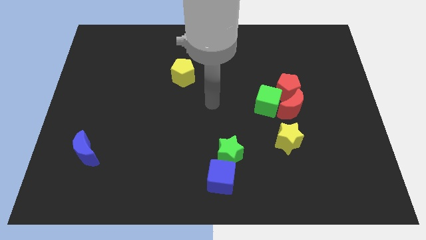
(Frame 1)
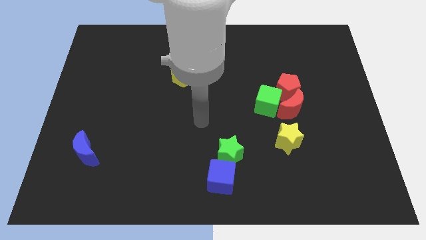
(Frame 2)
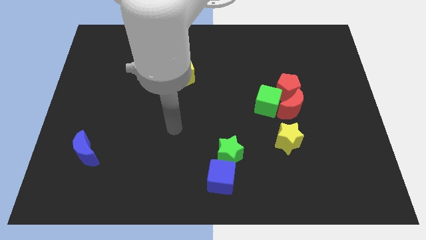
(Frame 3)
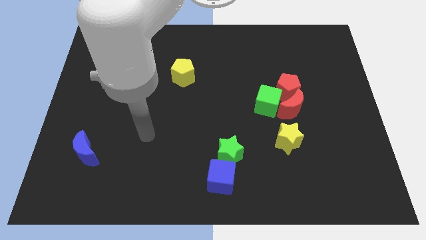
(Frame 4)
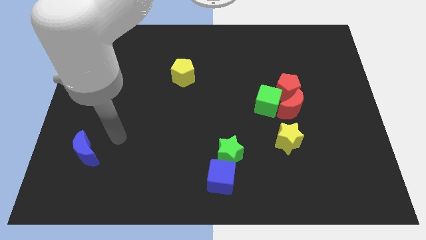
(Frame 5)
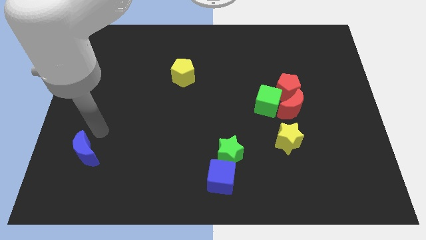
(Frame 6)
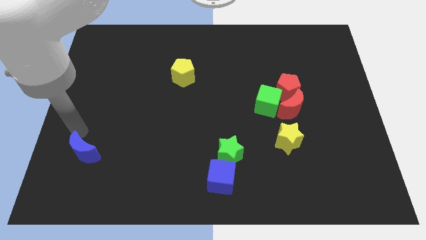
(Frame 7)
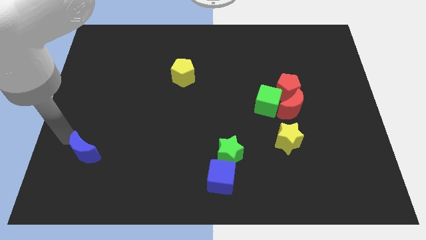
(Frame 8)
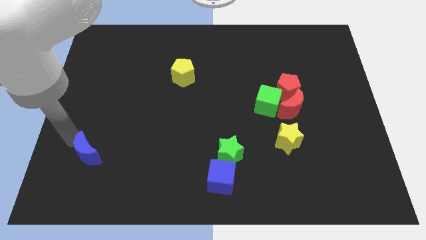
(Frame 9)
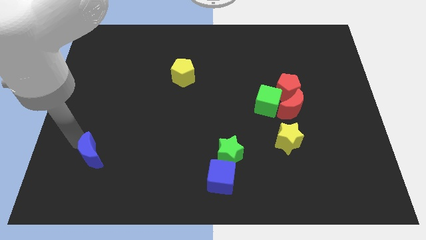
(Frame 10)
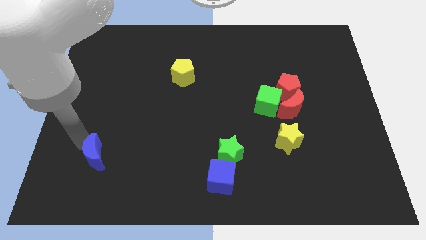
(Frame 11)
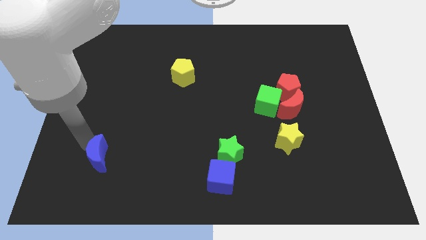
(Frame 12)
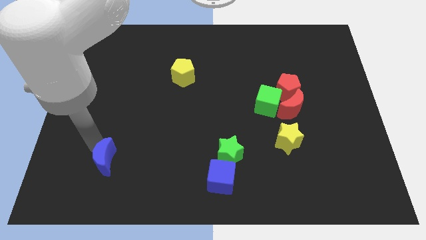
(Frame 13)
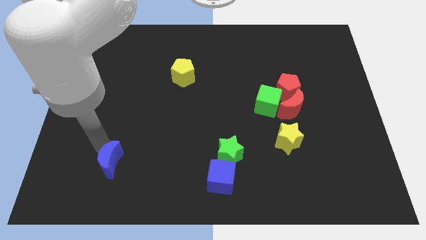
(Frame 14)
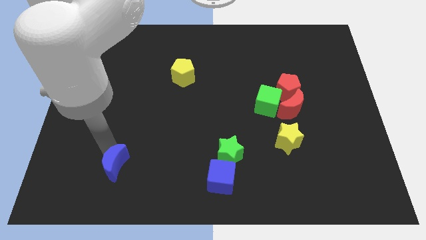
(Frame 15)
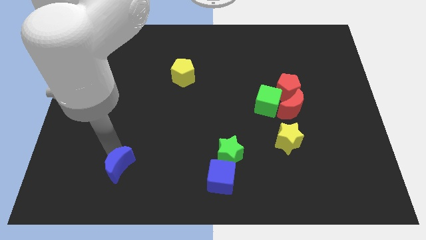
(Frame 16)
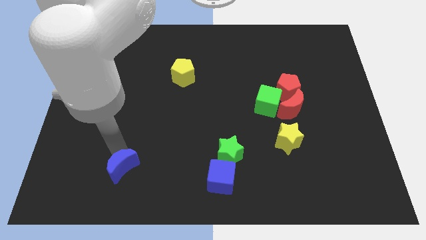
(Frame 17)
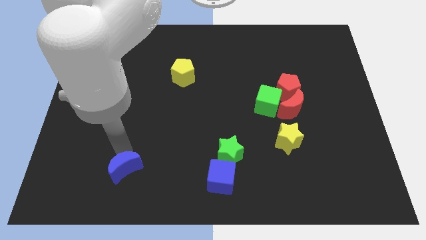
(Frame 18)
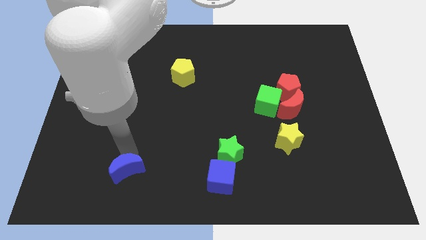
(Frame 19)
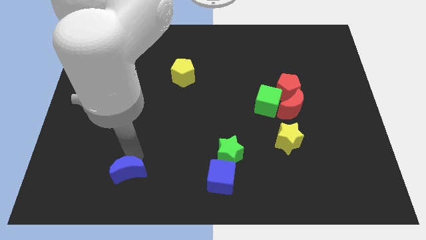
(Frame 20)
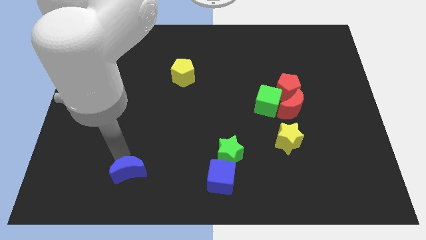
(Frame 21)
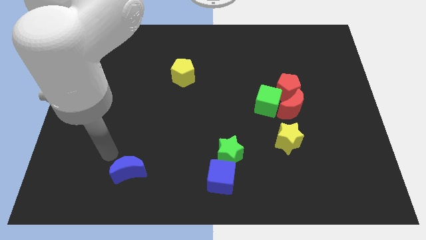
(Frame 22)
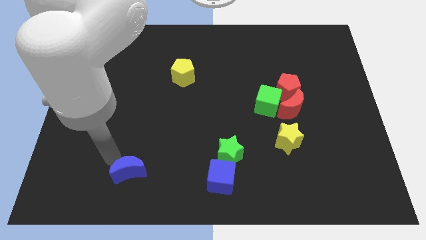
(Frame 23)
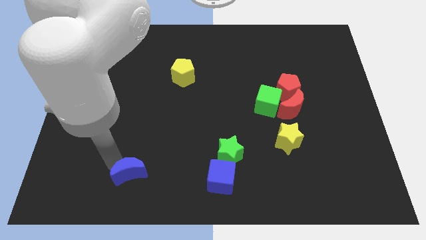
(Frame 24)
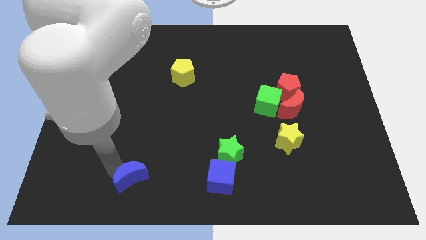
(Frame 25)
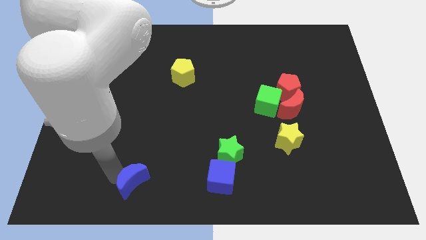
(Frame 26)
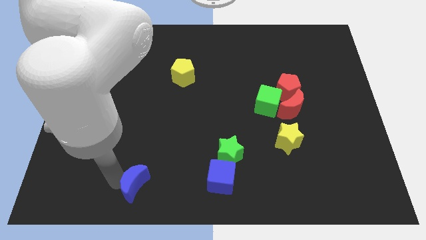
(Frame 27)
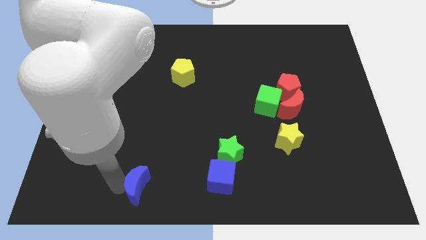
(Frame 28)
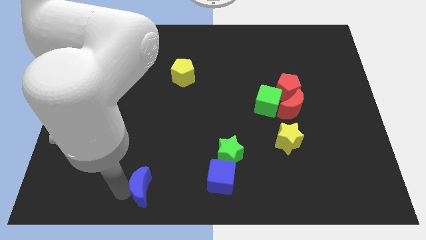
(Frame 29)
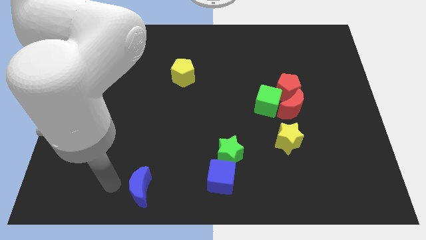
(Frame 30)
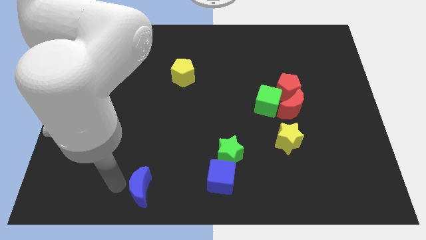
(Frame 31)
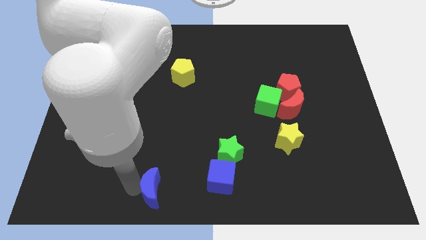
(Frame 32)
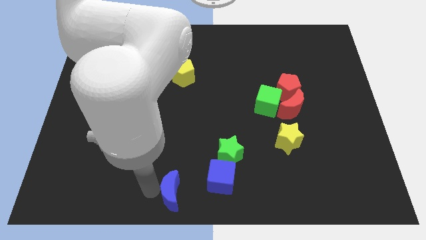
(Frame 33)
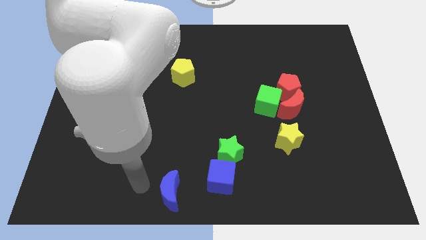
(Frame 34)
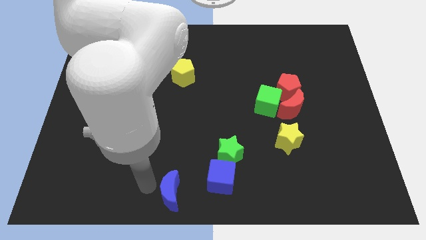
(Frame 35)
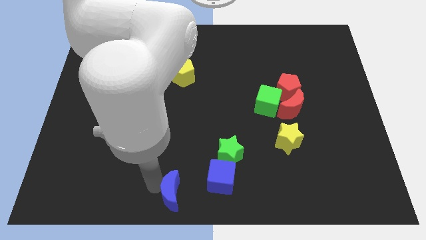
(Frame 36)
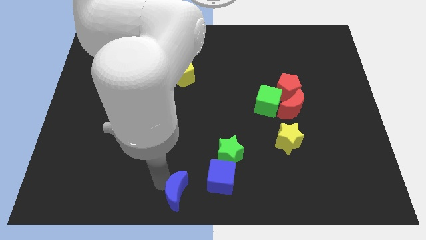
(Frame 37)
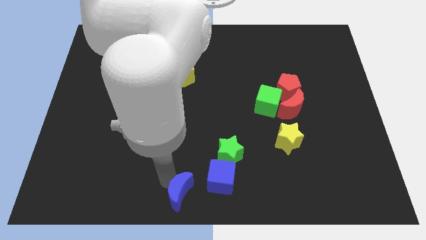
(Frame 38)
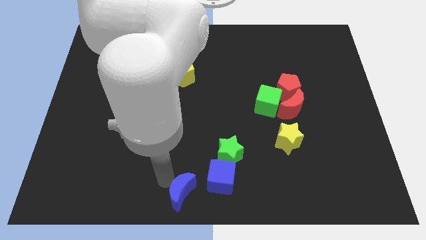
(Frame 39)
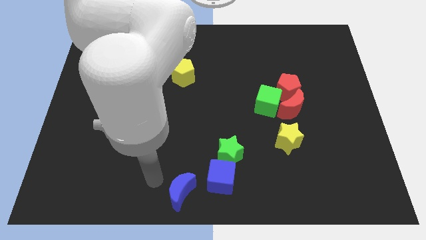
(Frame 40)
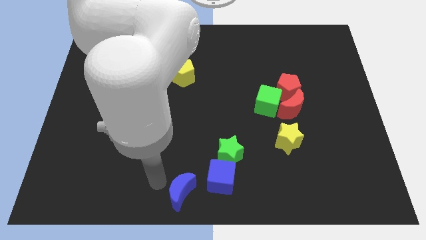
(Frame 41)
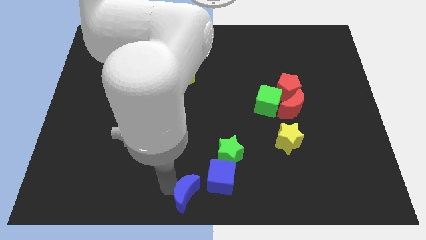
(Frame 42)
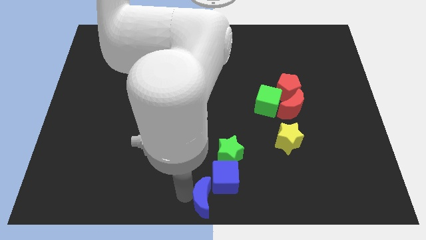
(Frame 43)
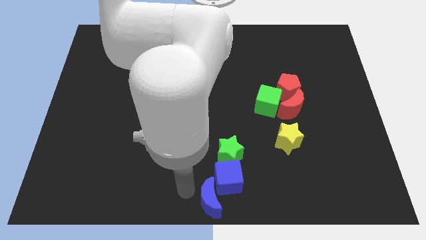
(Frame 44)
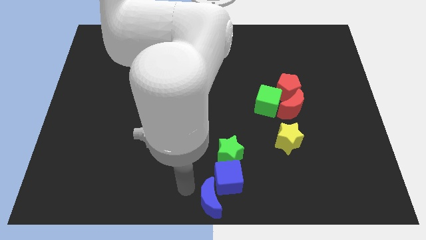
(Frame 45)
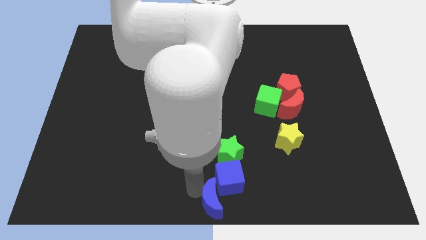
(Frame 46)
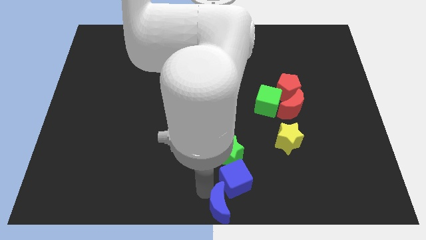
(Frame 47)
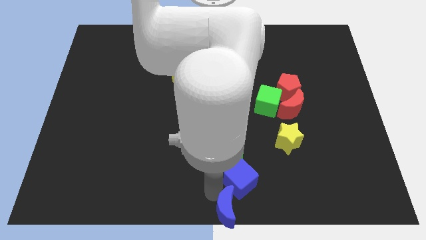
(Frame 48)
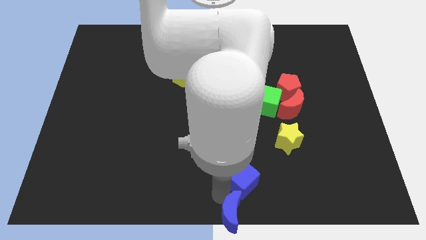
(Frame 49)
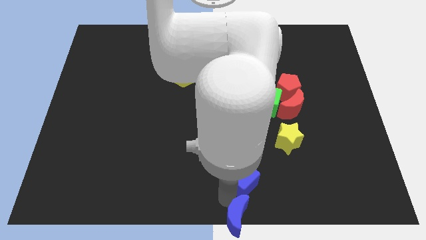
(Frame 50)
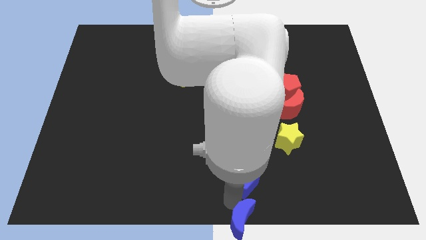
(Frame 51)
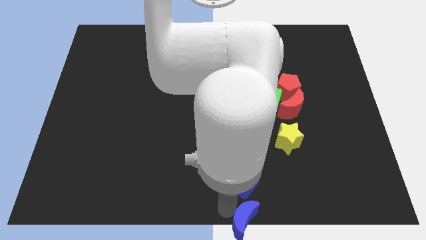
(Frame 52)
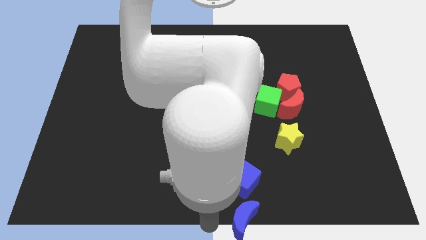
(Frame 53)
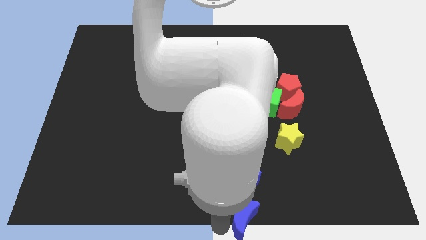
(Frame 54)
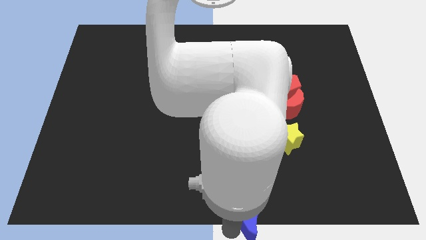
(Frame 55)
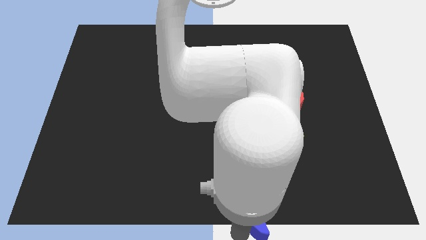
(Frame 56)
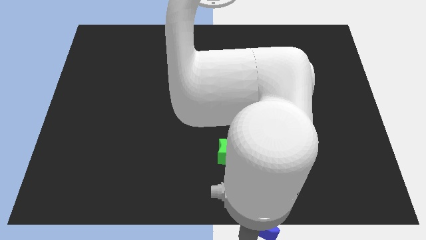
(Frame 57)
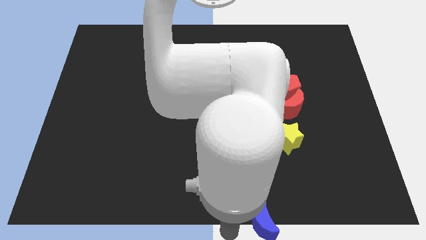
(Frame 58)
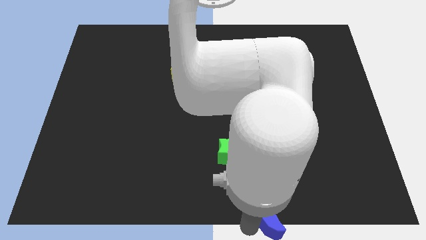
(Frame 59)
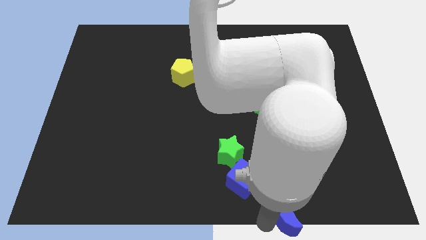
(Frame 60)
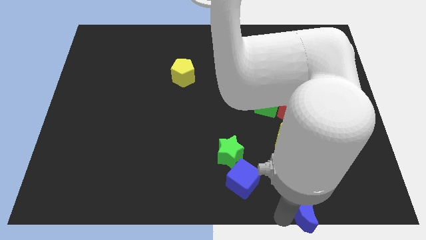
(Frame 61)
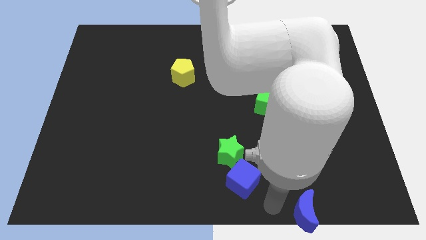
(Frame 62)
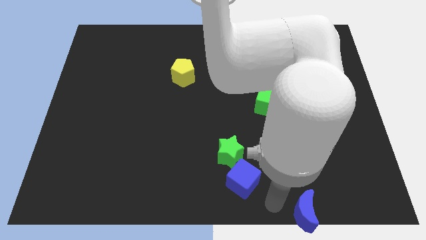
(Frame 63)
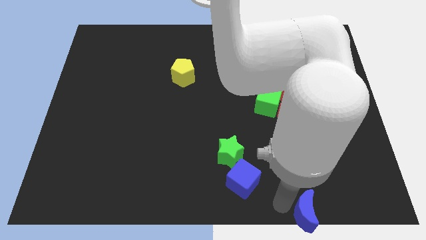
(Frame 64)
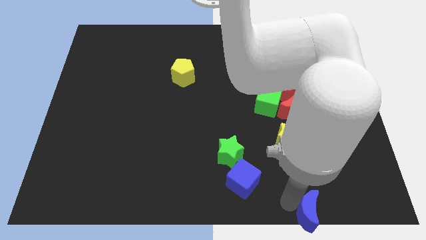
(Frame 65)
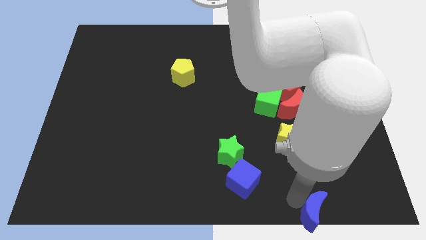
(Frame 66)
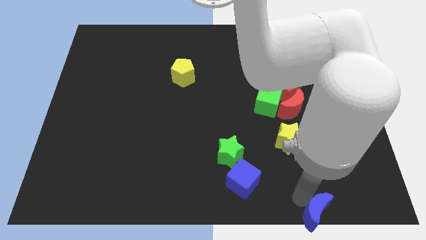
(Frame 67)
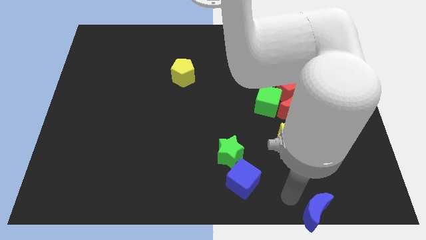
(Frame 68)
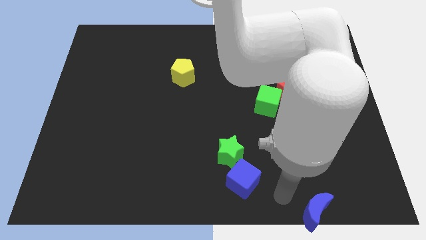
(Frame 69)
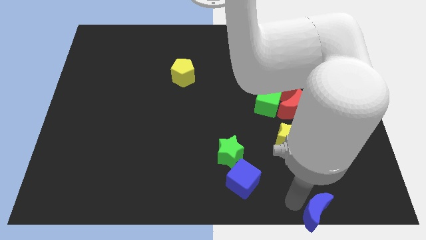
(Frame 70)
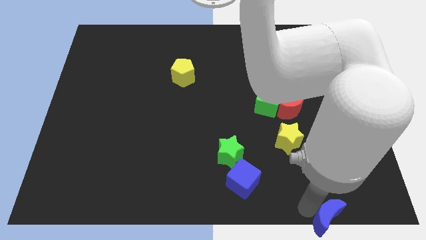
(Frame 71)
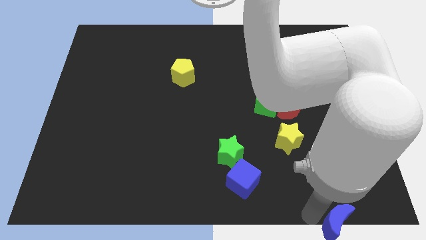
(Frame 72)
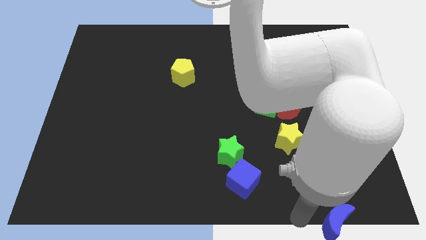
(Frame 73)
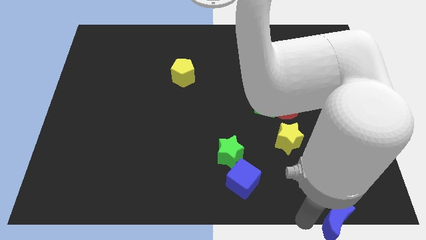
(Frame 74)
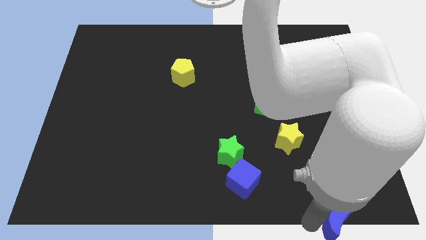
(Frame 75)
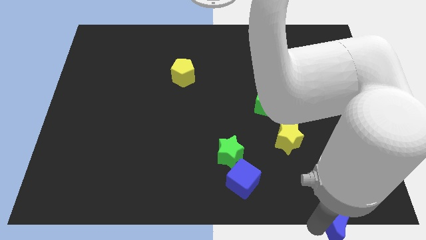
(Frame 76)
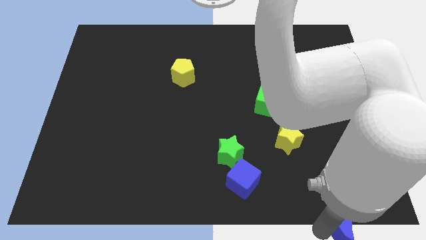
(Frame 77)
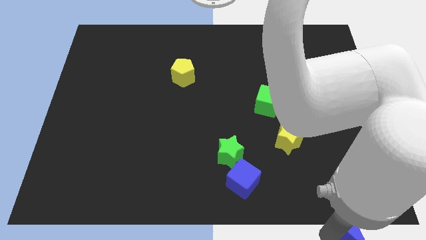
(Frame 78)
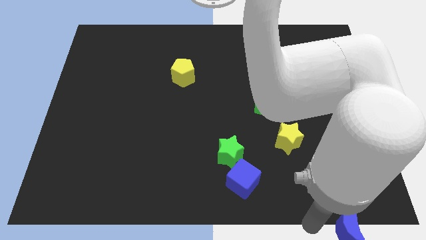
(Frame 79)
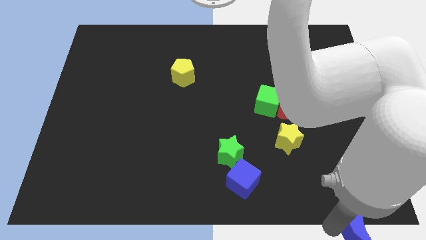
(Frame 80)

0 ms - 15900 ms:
move the blue moon to the bottom right of the board
